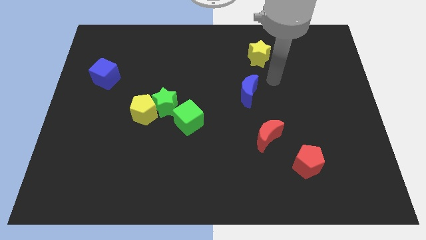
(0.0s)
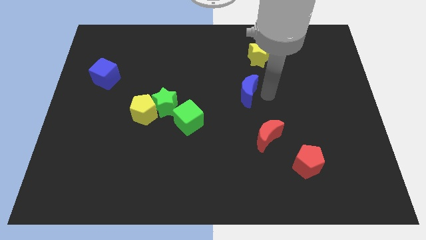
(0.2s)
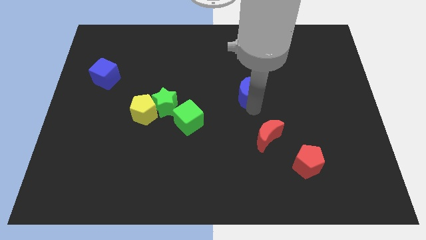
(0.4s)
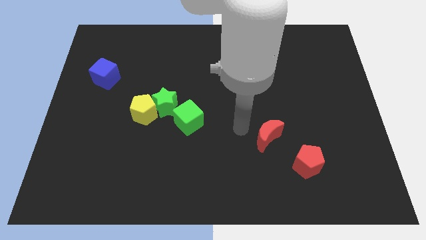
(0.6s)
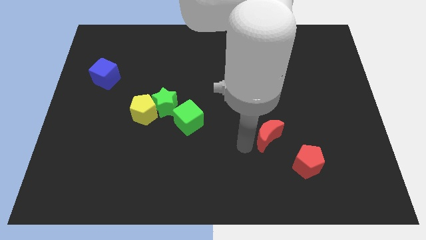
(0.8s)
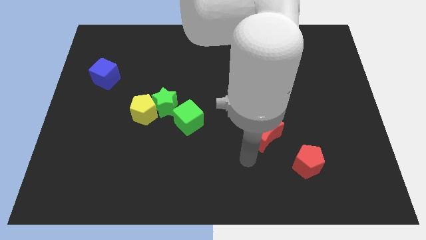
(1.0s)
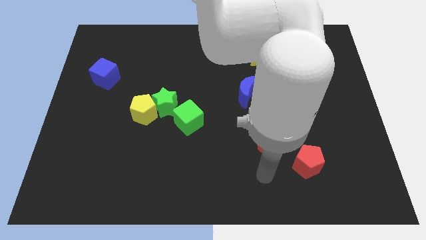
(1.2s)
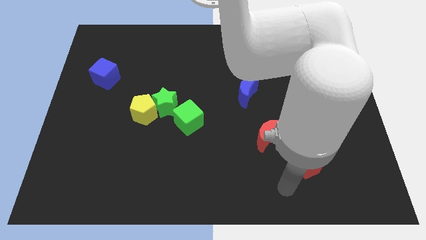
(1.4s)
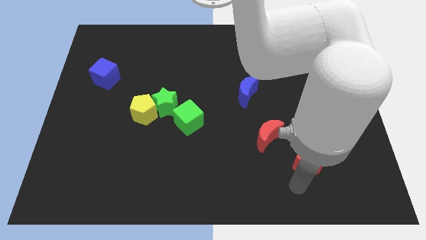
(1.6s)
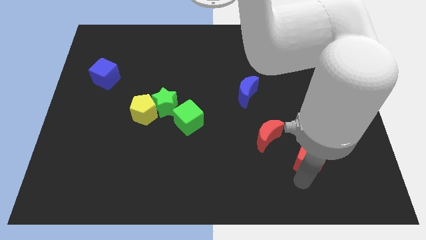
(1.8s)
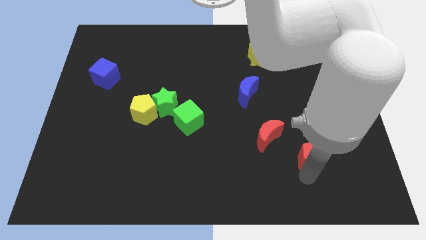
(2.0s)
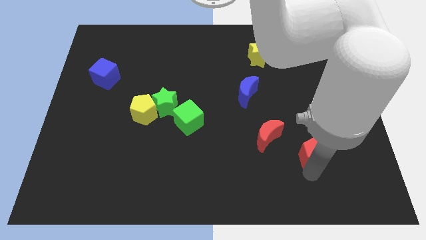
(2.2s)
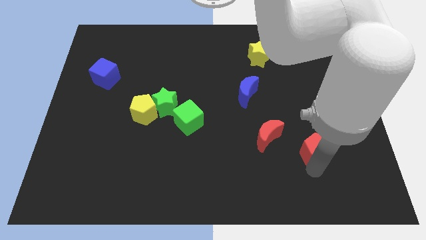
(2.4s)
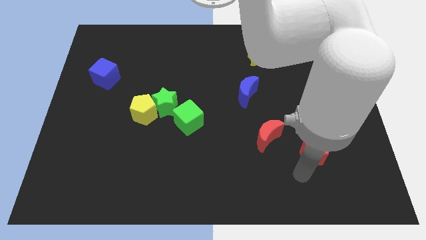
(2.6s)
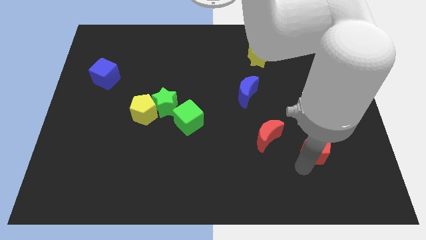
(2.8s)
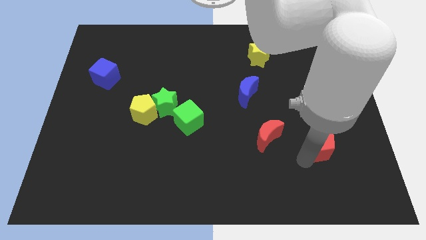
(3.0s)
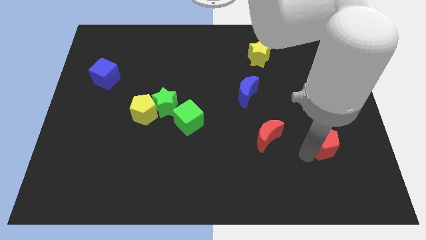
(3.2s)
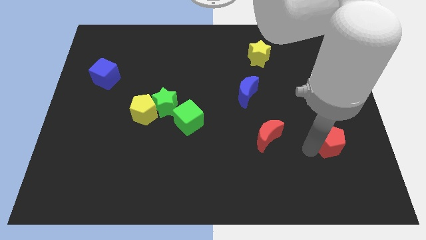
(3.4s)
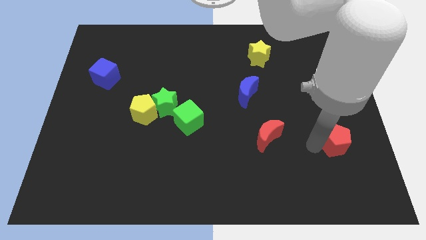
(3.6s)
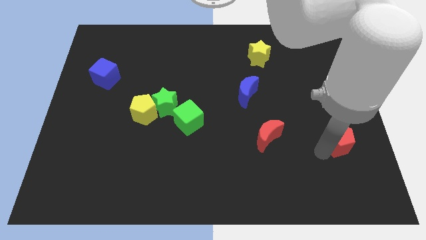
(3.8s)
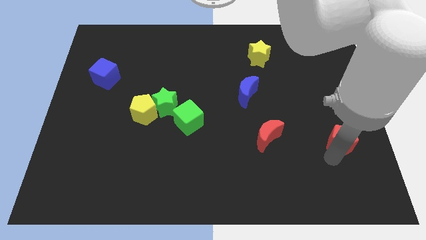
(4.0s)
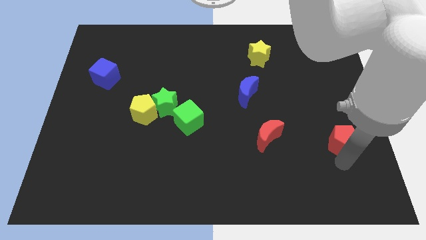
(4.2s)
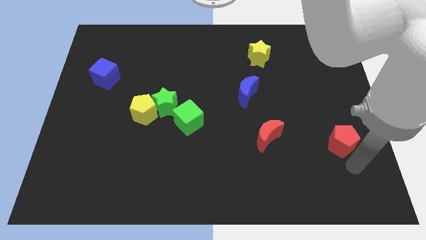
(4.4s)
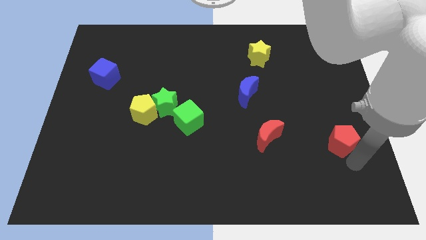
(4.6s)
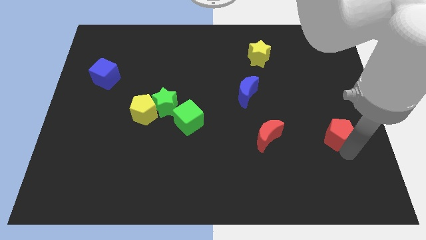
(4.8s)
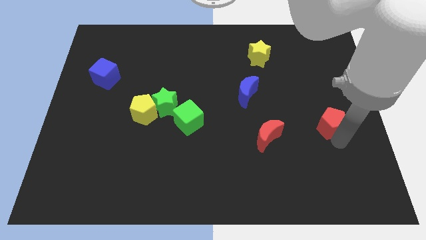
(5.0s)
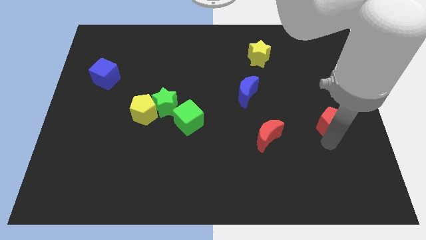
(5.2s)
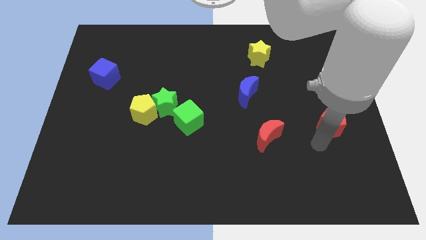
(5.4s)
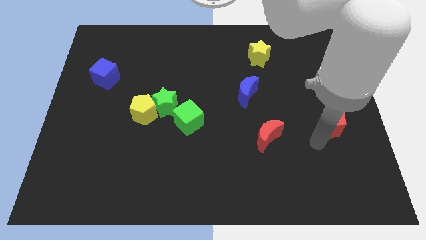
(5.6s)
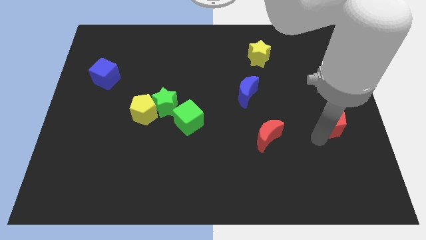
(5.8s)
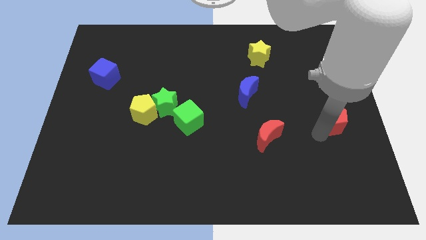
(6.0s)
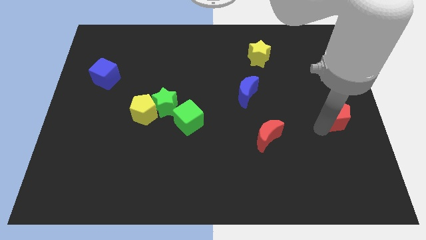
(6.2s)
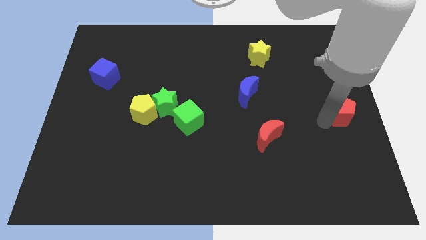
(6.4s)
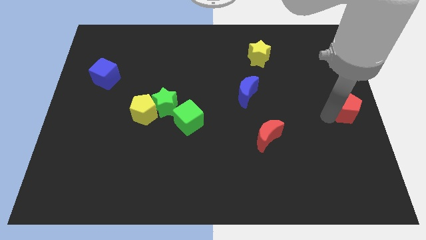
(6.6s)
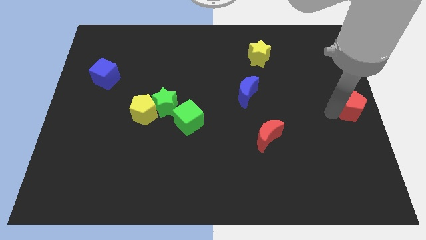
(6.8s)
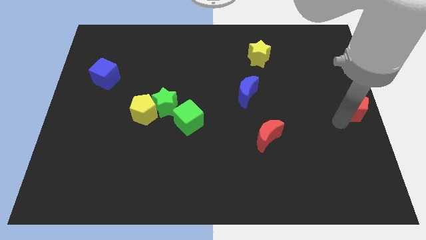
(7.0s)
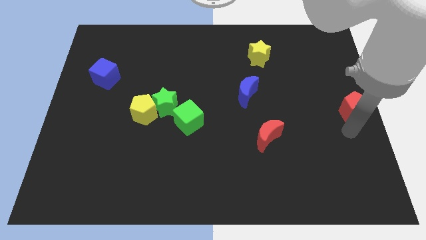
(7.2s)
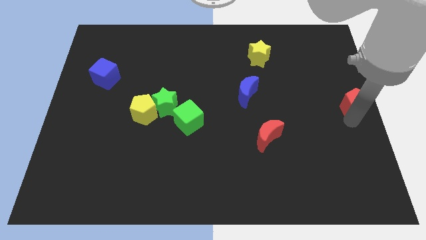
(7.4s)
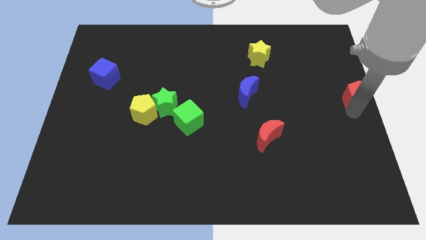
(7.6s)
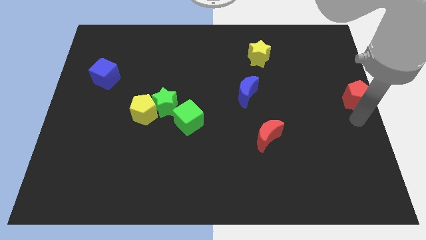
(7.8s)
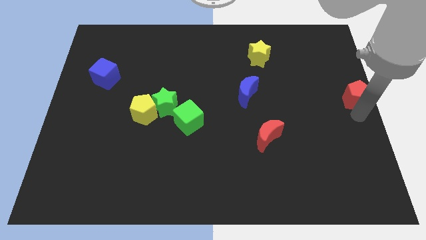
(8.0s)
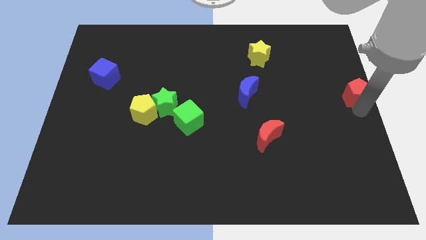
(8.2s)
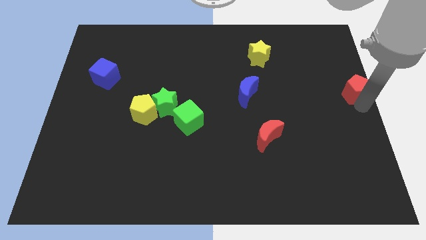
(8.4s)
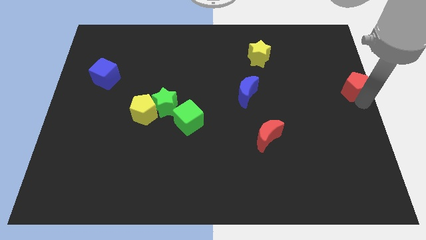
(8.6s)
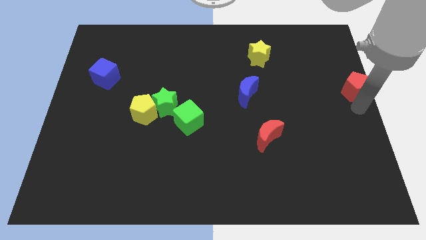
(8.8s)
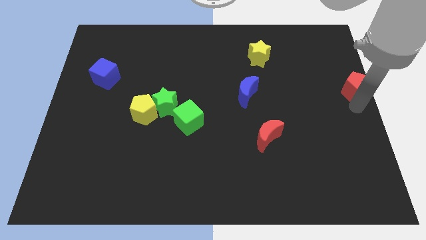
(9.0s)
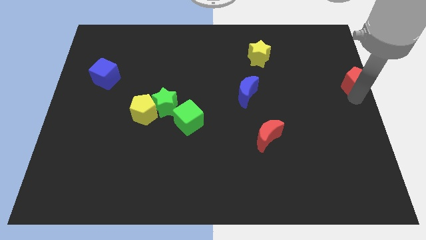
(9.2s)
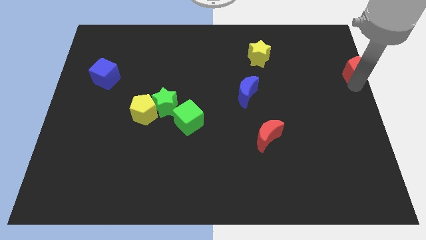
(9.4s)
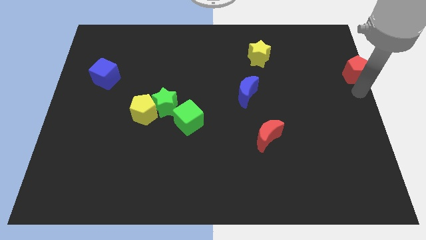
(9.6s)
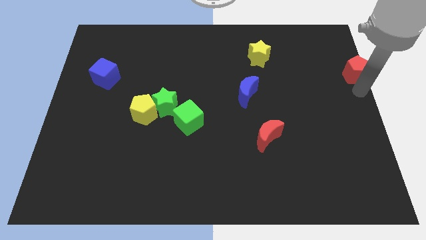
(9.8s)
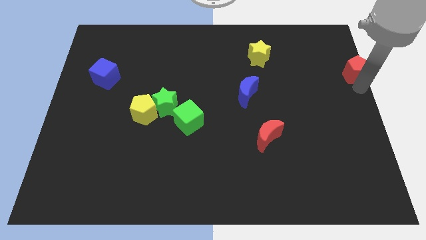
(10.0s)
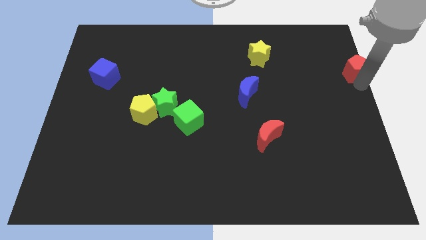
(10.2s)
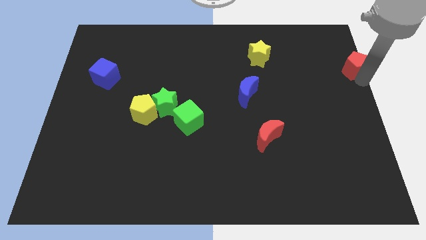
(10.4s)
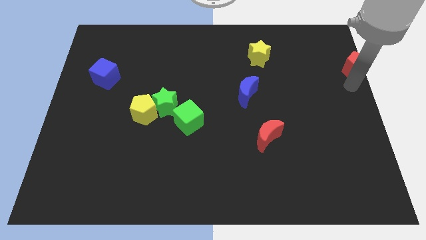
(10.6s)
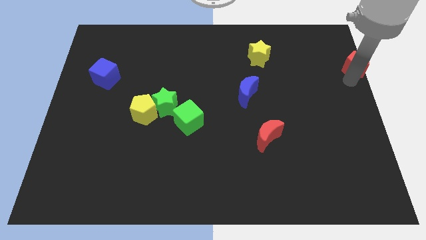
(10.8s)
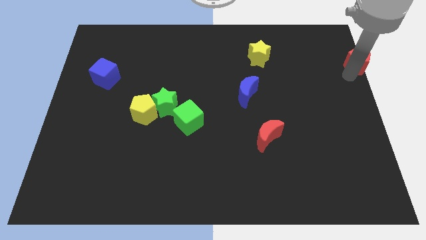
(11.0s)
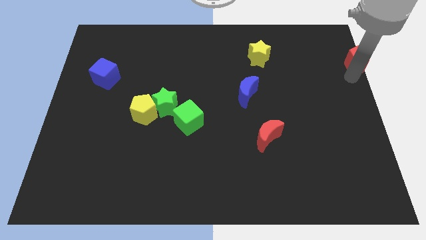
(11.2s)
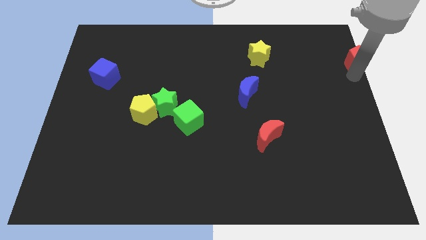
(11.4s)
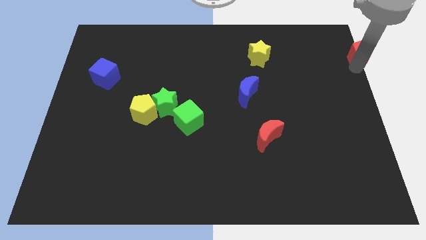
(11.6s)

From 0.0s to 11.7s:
slide the red pentagon to the top right

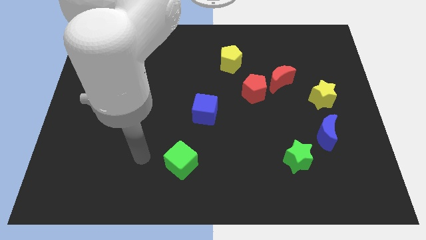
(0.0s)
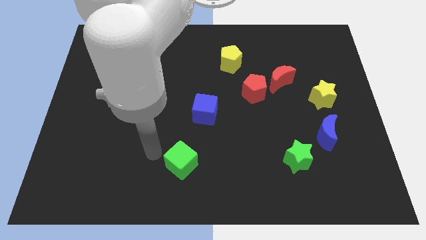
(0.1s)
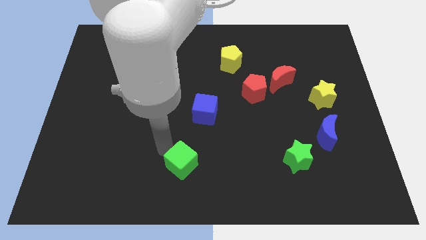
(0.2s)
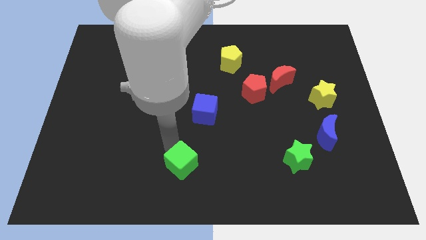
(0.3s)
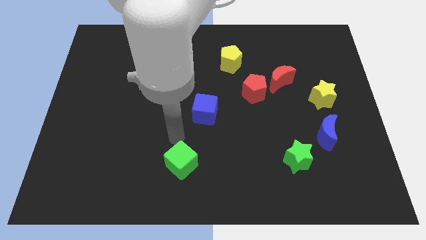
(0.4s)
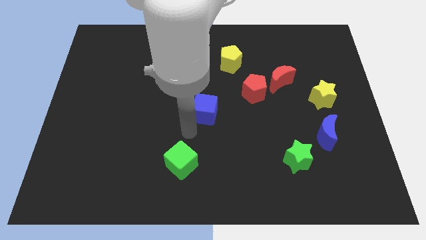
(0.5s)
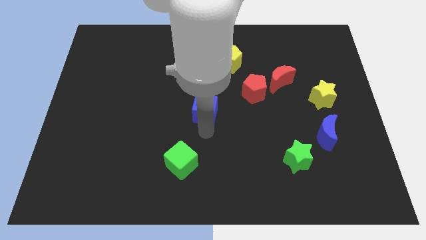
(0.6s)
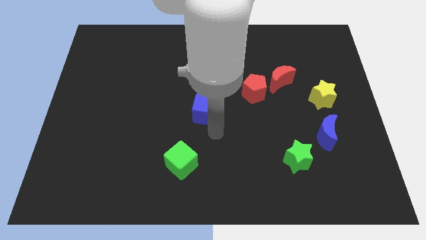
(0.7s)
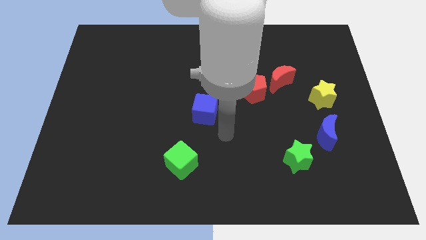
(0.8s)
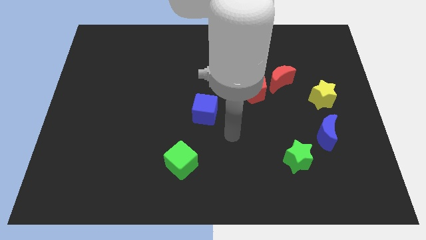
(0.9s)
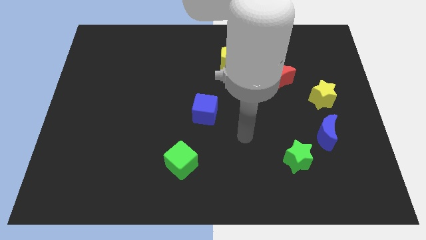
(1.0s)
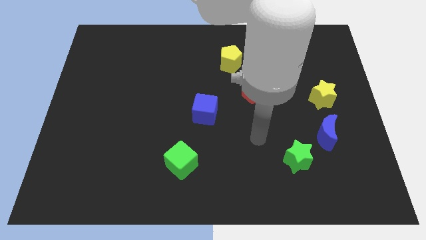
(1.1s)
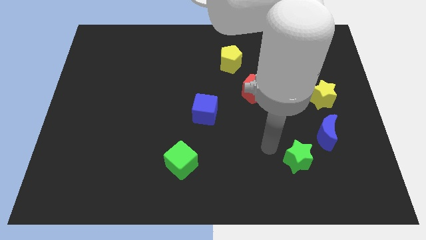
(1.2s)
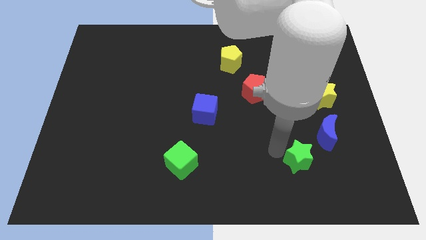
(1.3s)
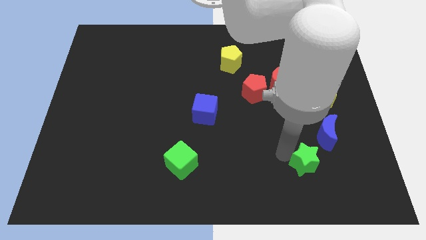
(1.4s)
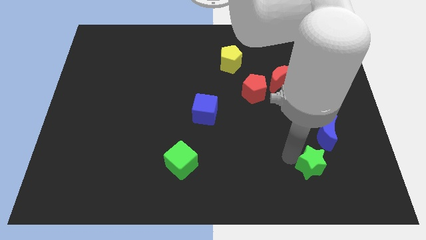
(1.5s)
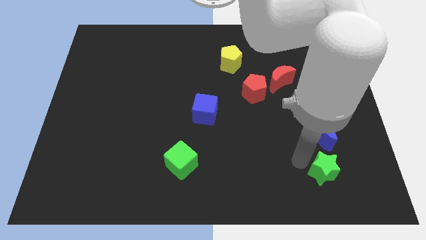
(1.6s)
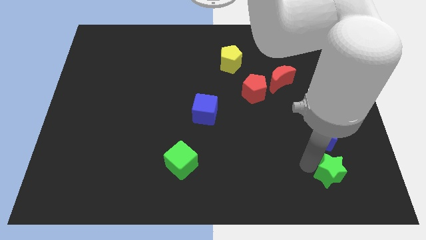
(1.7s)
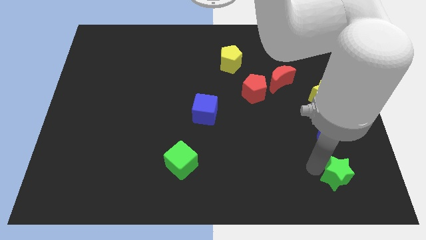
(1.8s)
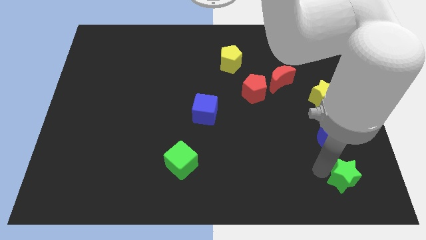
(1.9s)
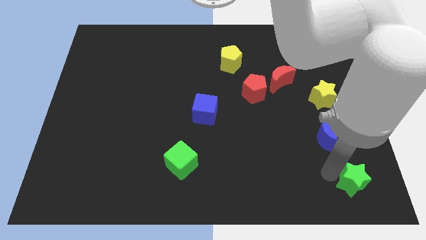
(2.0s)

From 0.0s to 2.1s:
move the green star to the bottom right of the board
